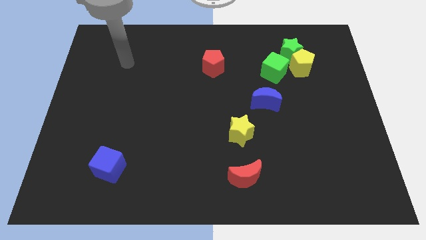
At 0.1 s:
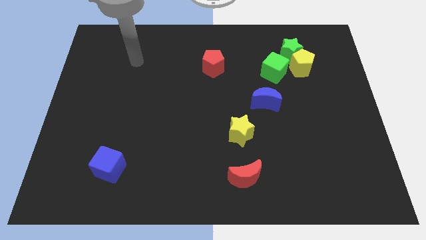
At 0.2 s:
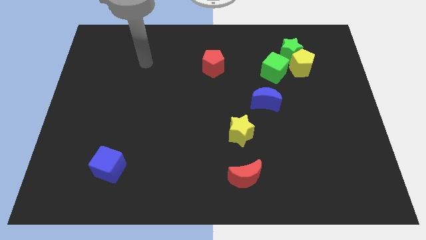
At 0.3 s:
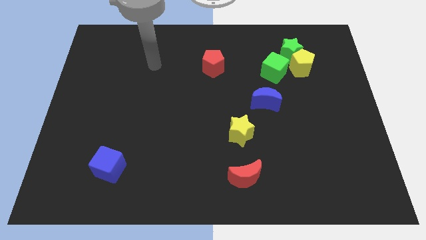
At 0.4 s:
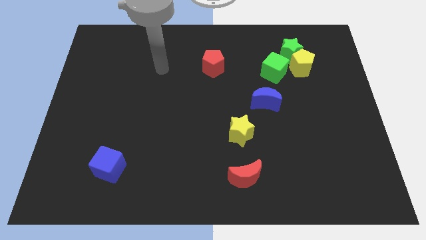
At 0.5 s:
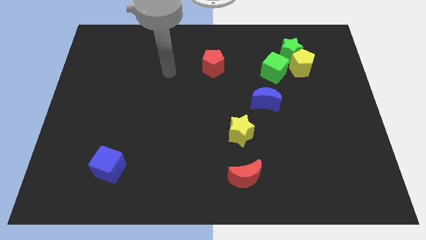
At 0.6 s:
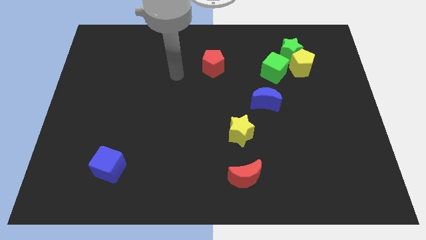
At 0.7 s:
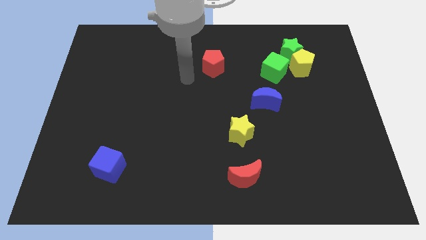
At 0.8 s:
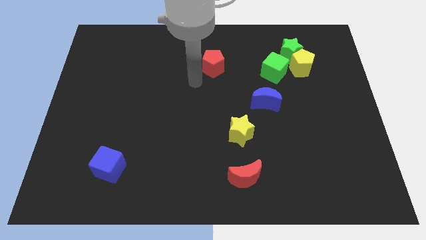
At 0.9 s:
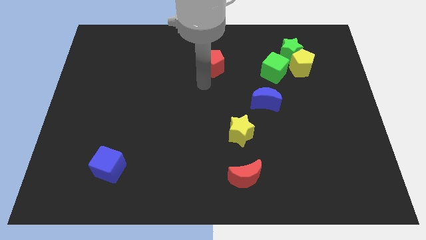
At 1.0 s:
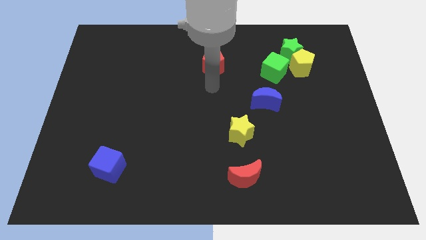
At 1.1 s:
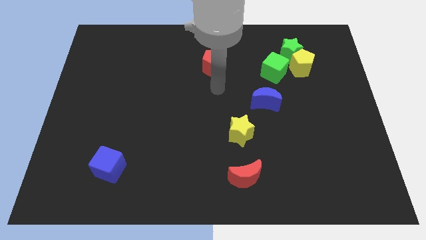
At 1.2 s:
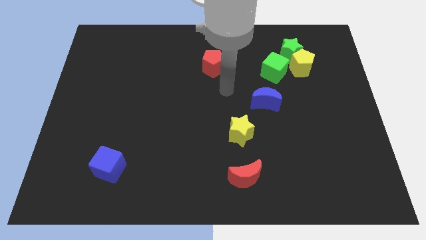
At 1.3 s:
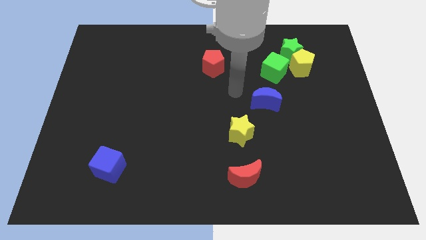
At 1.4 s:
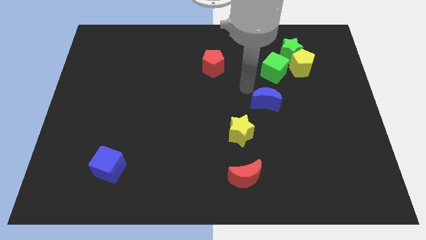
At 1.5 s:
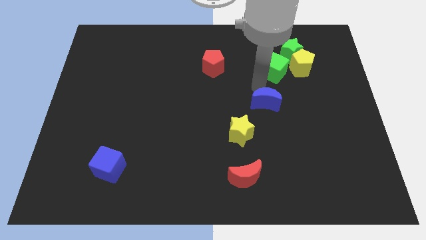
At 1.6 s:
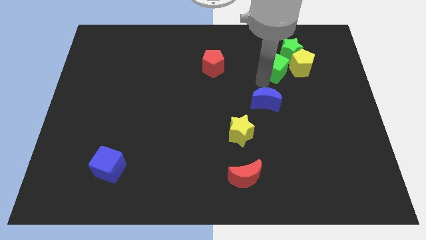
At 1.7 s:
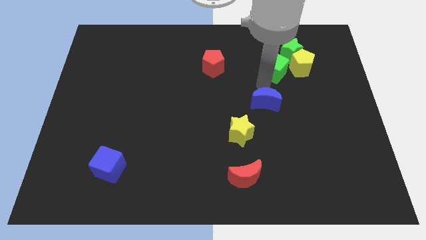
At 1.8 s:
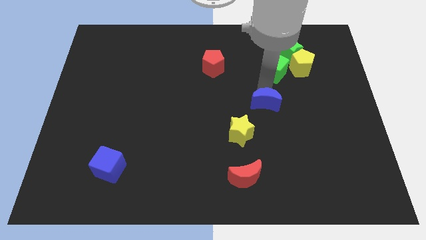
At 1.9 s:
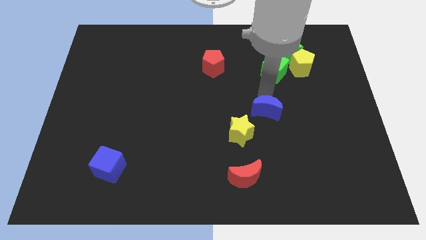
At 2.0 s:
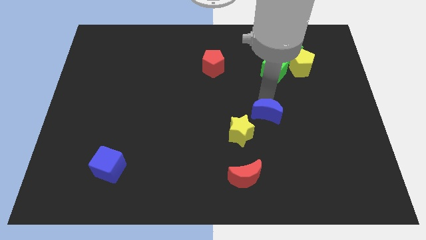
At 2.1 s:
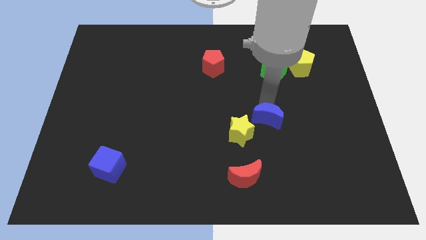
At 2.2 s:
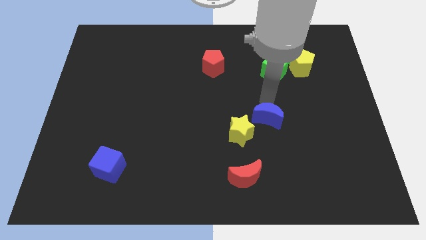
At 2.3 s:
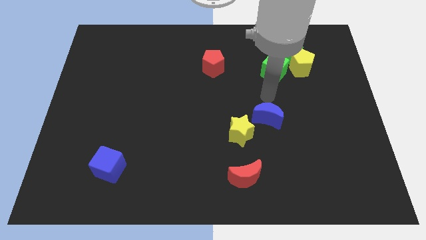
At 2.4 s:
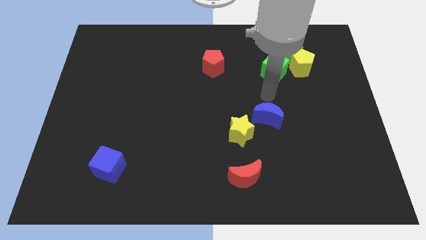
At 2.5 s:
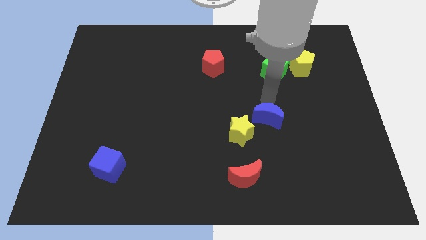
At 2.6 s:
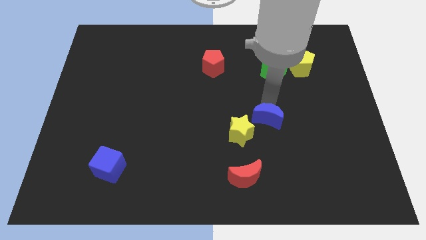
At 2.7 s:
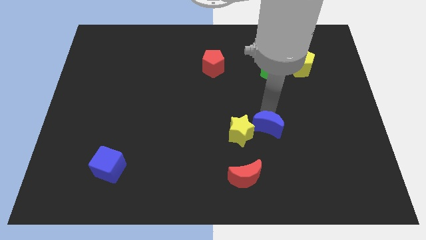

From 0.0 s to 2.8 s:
push the blue moon down a bit

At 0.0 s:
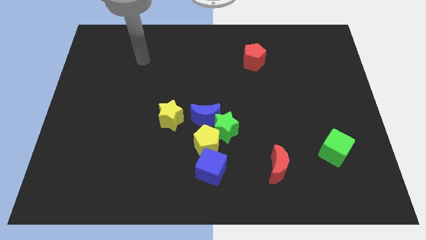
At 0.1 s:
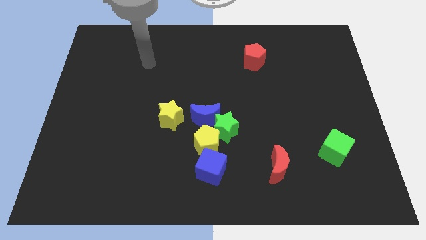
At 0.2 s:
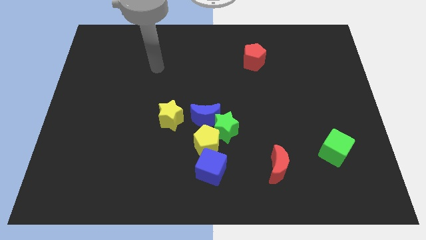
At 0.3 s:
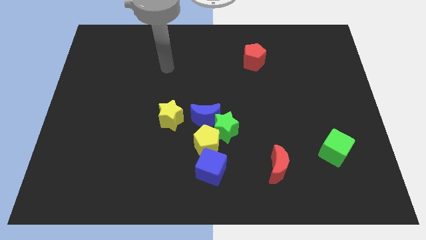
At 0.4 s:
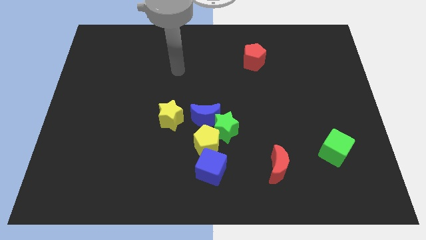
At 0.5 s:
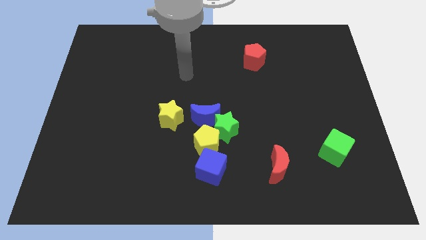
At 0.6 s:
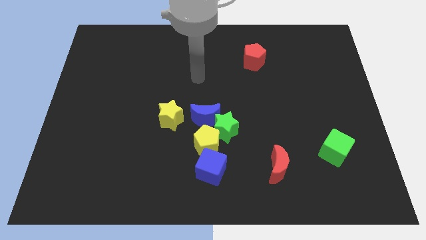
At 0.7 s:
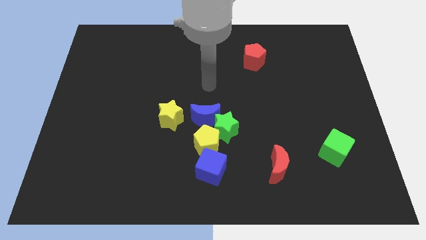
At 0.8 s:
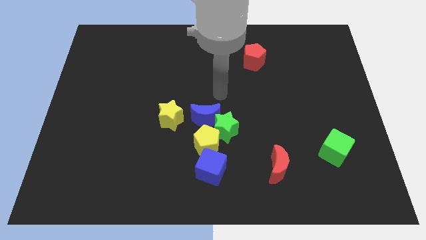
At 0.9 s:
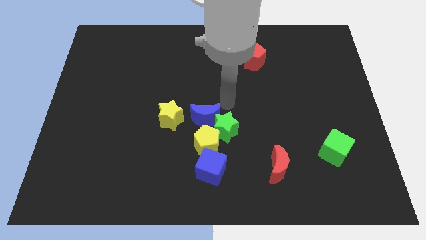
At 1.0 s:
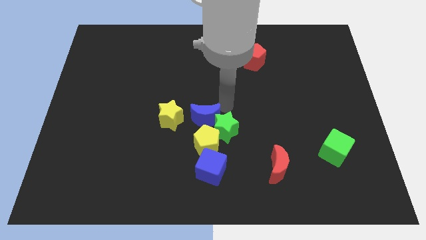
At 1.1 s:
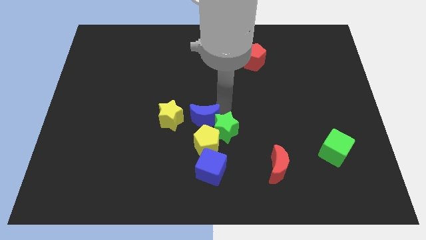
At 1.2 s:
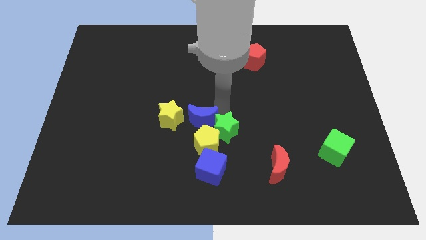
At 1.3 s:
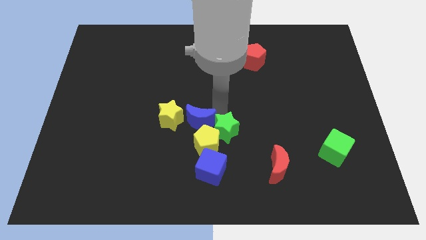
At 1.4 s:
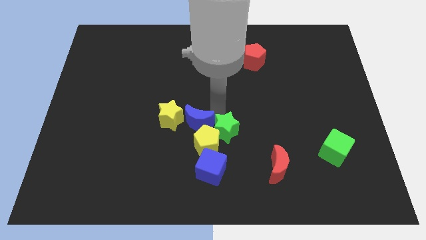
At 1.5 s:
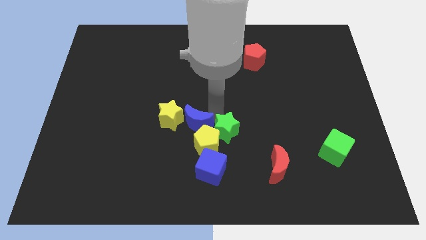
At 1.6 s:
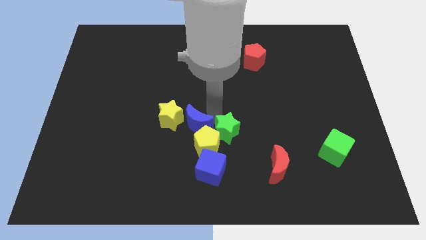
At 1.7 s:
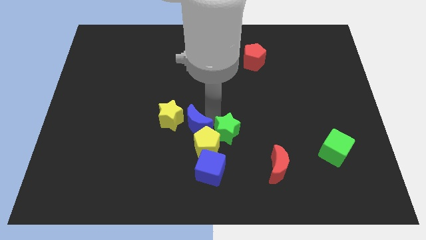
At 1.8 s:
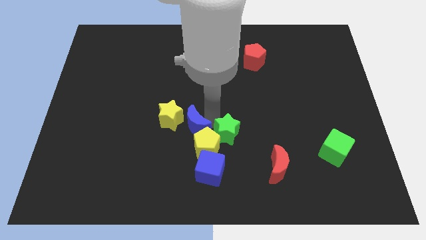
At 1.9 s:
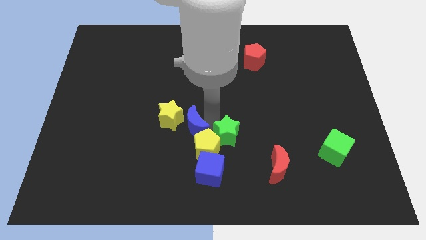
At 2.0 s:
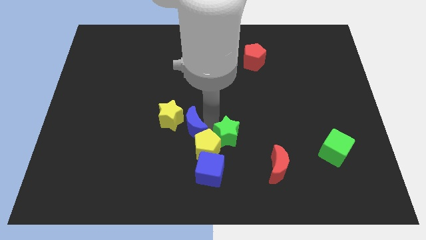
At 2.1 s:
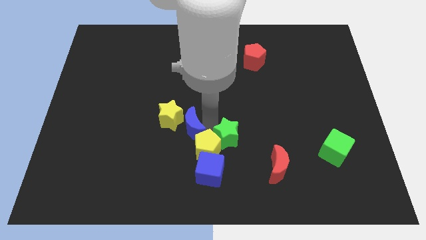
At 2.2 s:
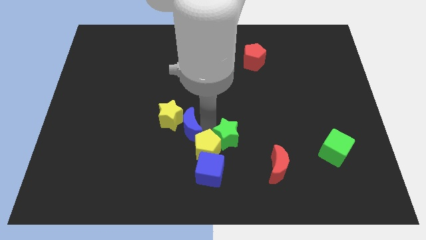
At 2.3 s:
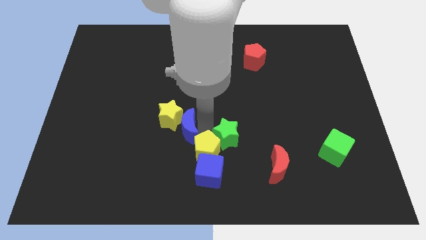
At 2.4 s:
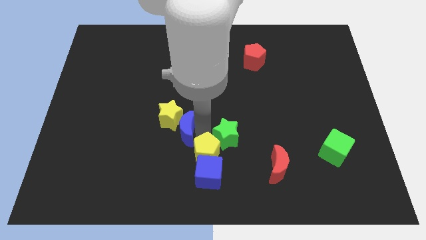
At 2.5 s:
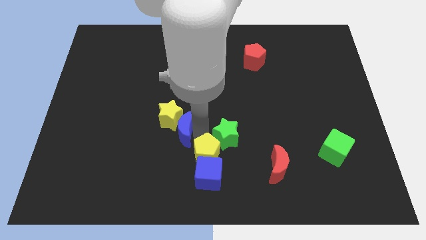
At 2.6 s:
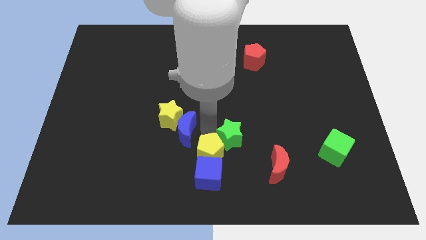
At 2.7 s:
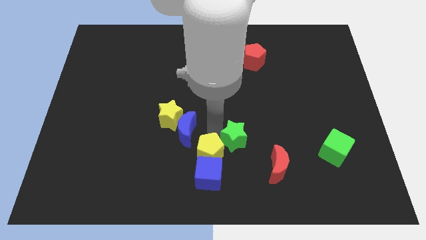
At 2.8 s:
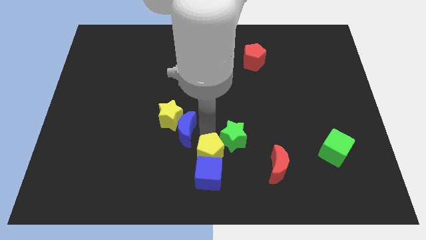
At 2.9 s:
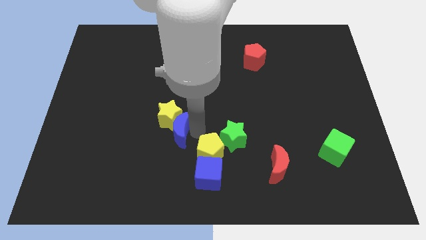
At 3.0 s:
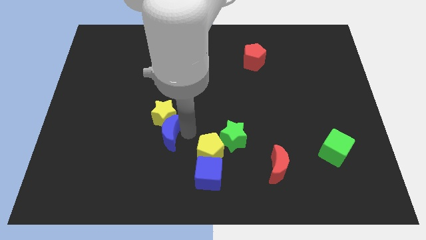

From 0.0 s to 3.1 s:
slide the blue moon somewhat to the left

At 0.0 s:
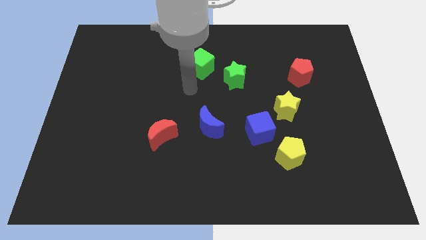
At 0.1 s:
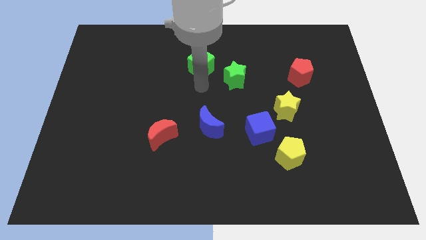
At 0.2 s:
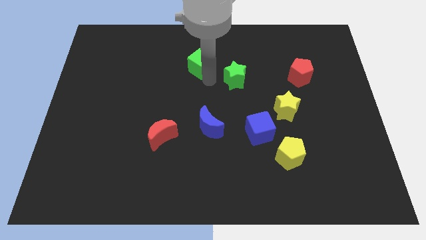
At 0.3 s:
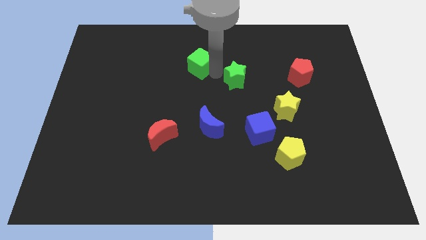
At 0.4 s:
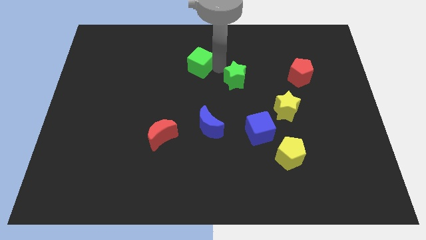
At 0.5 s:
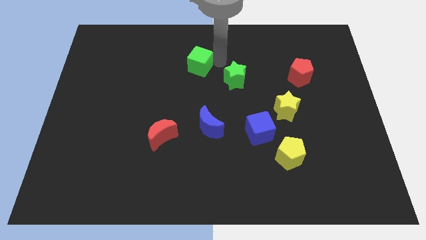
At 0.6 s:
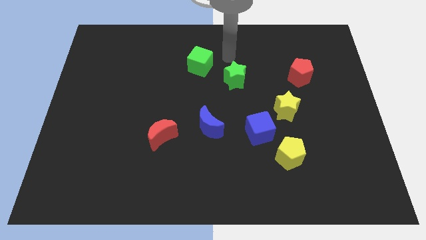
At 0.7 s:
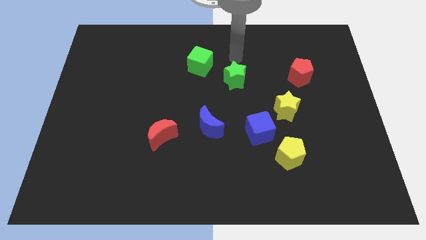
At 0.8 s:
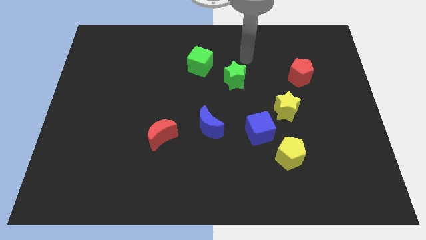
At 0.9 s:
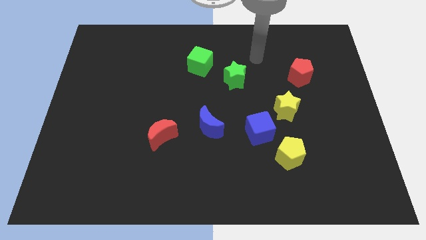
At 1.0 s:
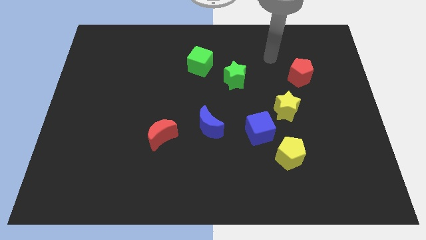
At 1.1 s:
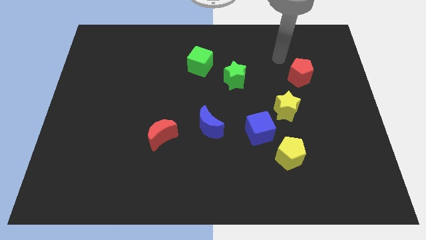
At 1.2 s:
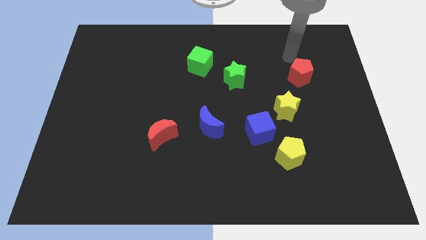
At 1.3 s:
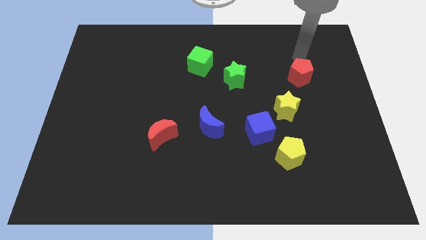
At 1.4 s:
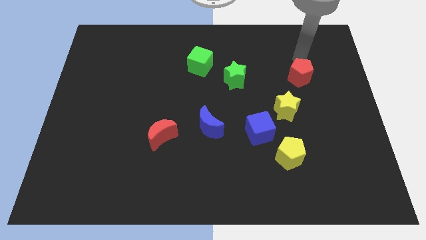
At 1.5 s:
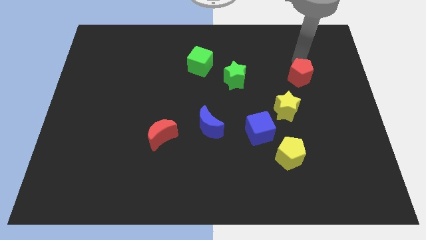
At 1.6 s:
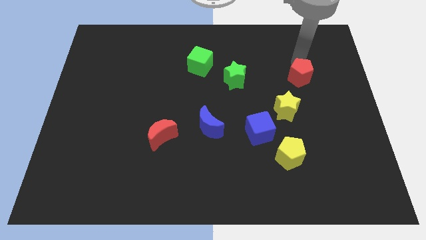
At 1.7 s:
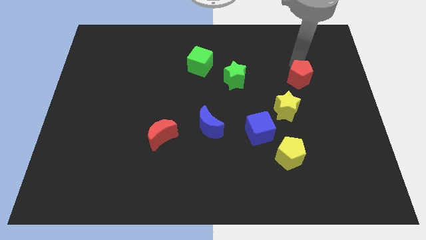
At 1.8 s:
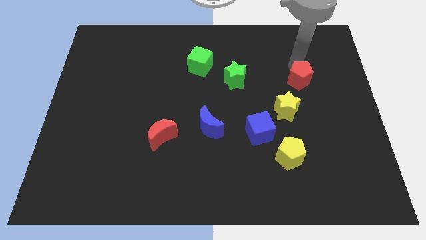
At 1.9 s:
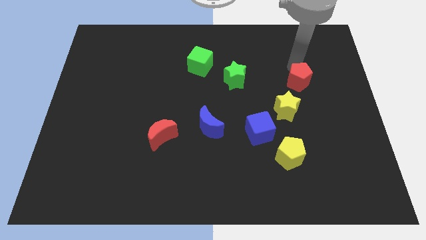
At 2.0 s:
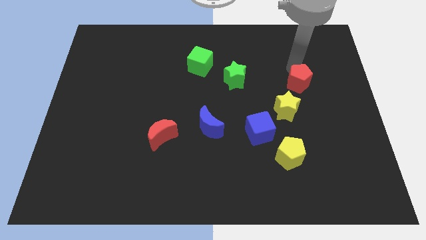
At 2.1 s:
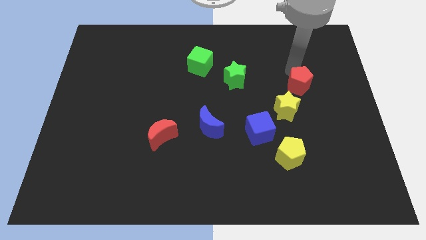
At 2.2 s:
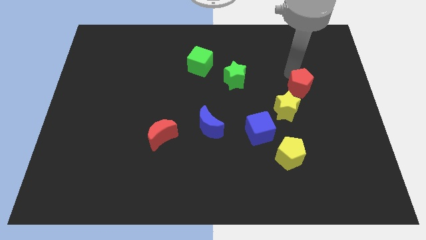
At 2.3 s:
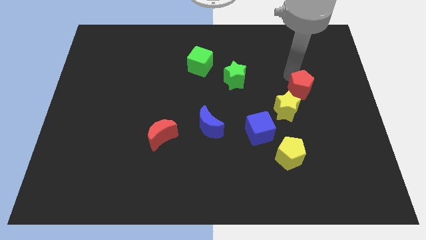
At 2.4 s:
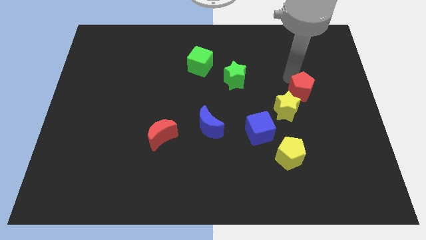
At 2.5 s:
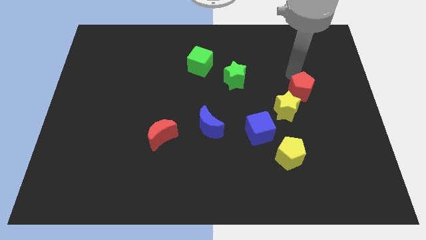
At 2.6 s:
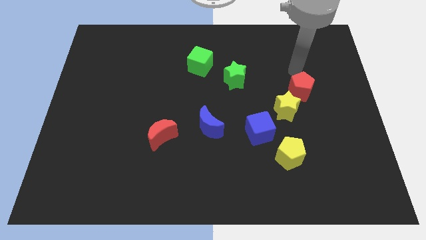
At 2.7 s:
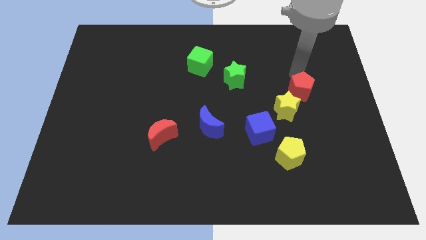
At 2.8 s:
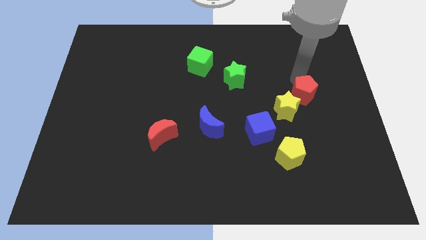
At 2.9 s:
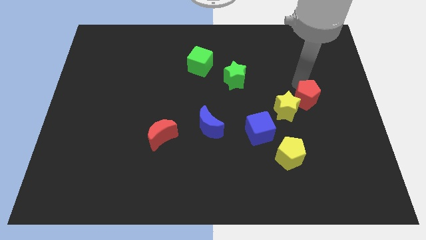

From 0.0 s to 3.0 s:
slightly push the red pentagon downwards
